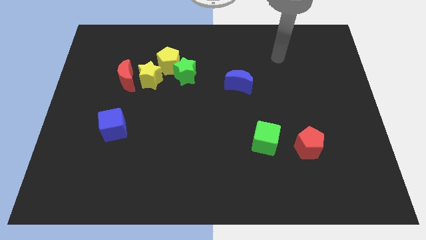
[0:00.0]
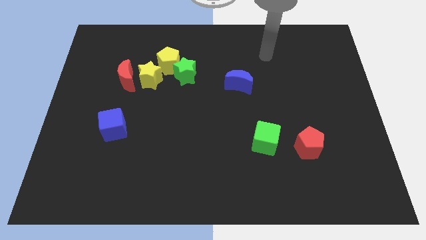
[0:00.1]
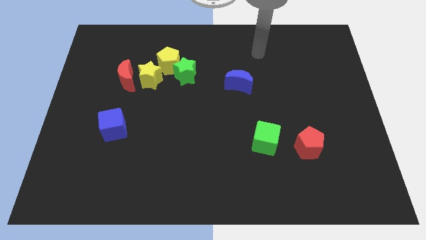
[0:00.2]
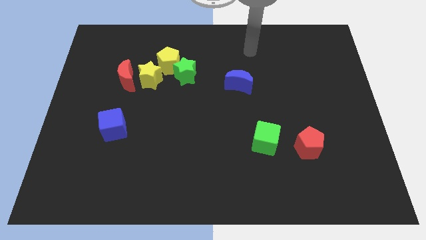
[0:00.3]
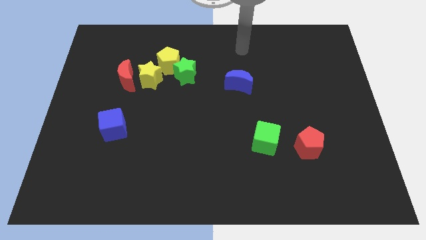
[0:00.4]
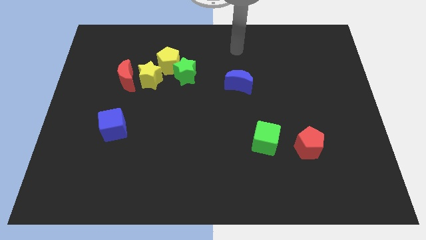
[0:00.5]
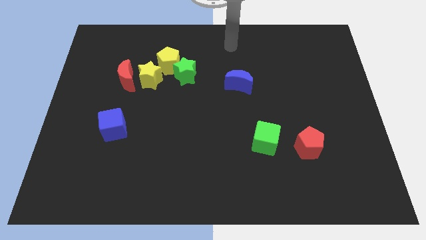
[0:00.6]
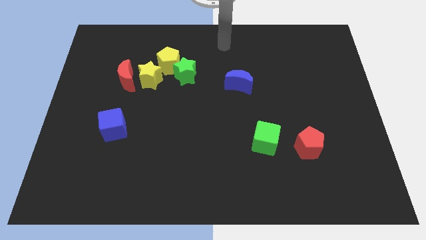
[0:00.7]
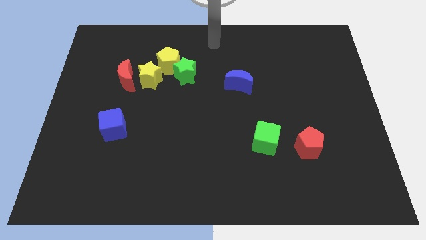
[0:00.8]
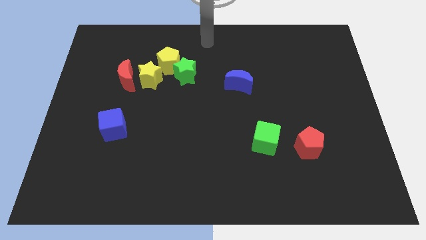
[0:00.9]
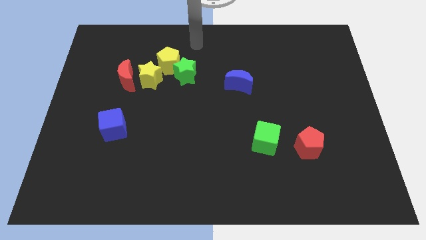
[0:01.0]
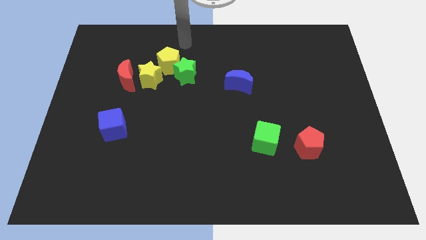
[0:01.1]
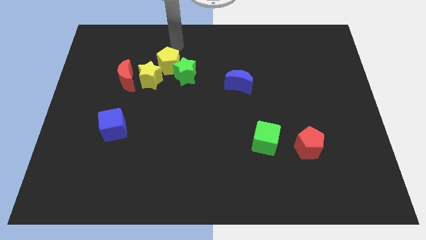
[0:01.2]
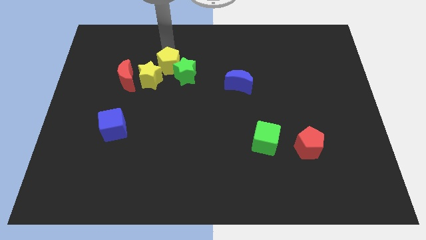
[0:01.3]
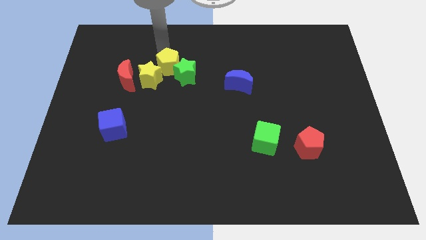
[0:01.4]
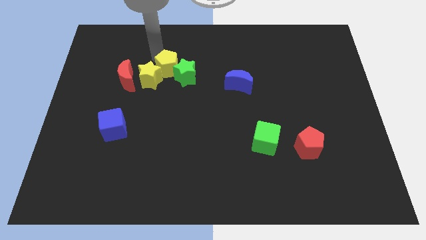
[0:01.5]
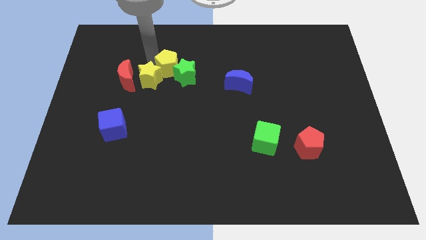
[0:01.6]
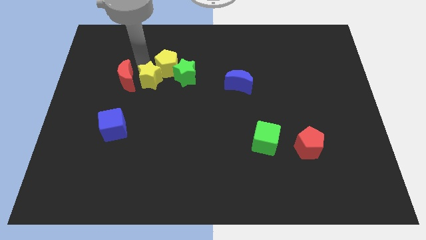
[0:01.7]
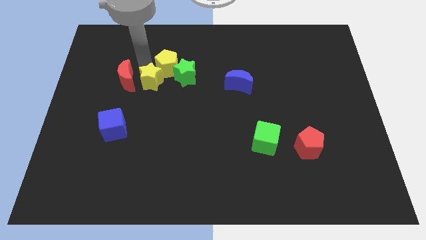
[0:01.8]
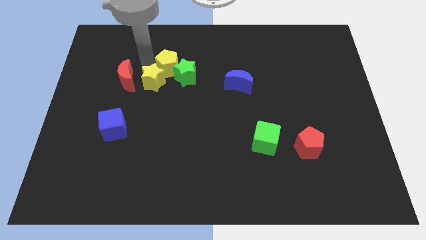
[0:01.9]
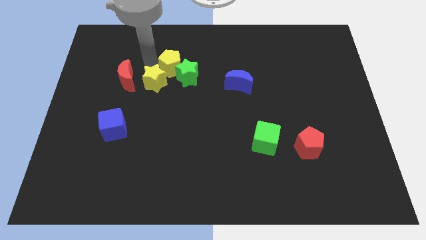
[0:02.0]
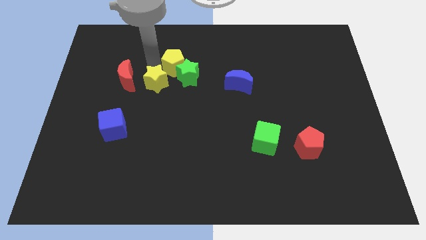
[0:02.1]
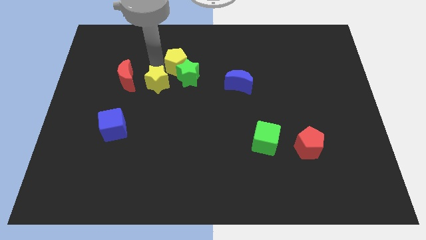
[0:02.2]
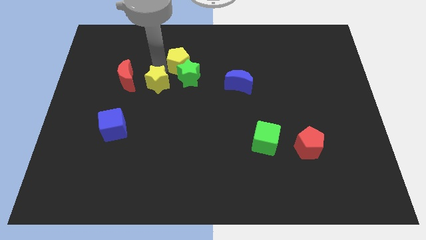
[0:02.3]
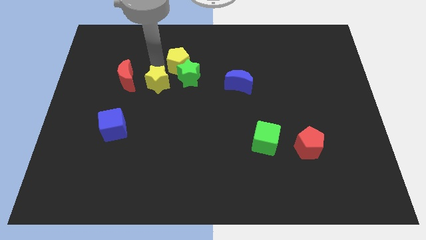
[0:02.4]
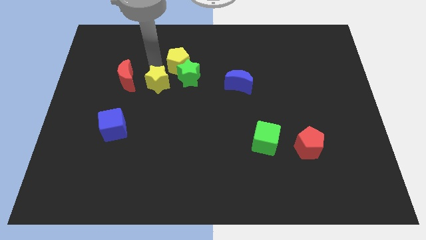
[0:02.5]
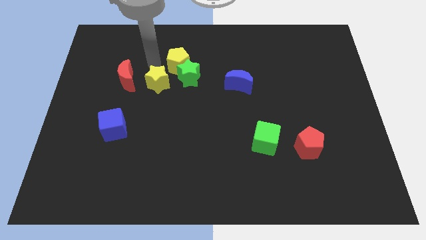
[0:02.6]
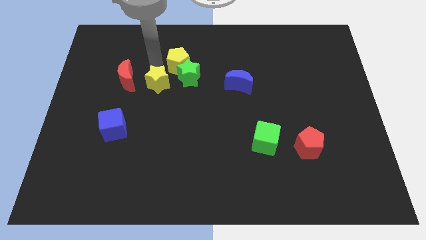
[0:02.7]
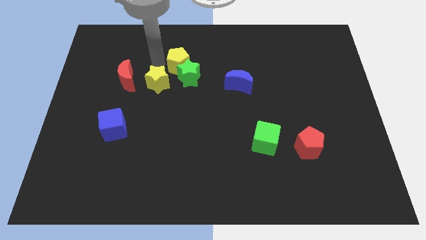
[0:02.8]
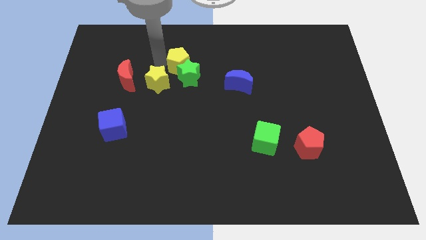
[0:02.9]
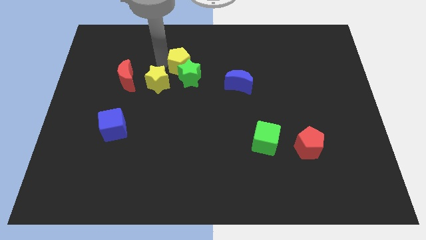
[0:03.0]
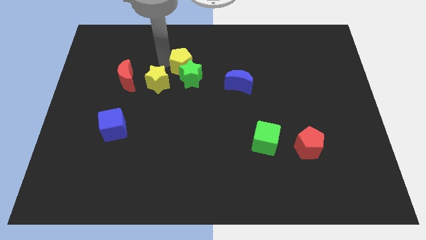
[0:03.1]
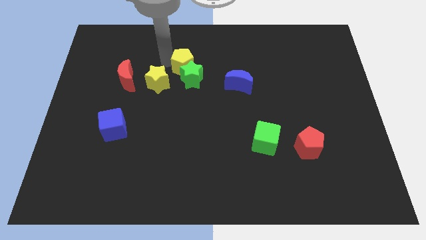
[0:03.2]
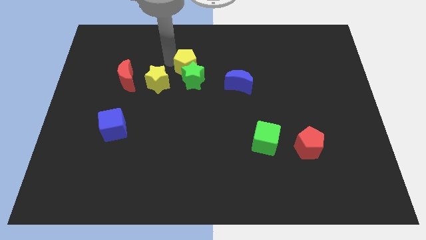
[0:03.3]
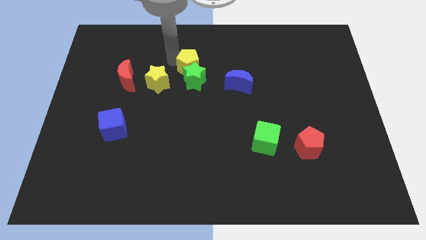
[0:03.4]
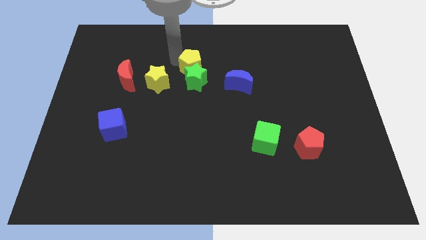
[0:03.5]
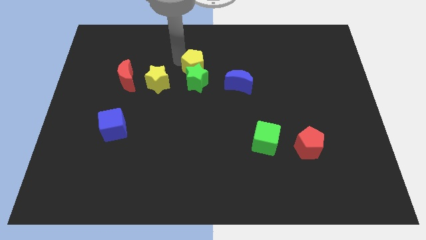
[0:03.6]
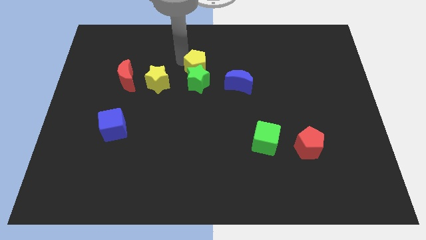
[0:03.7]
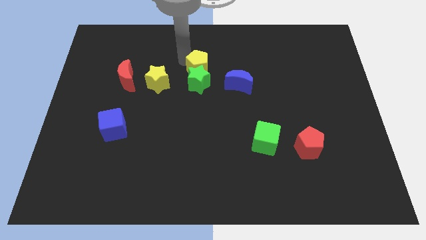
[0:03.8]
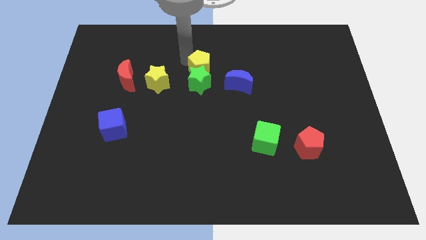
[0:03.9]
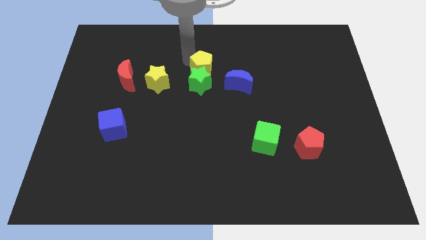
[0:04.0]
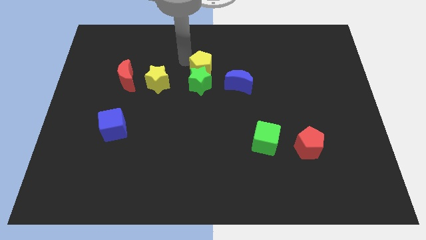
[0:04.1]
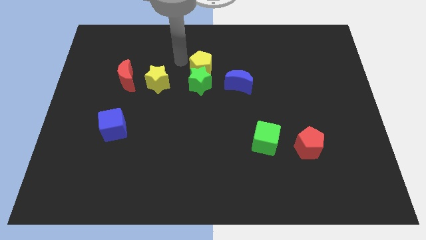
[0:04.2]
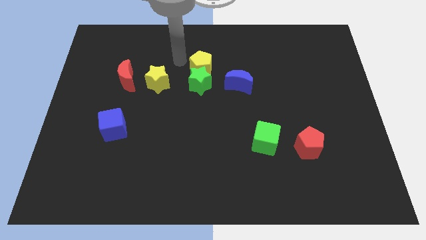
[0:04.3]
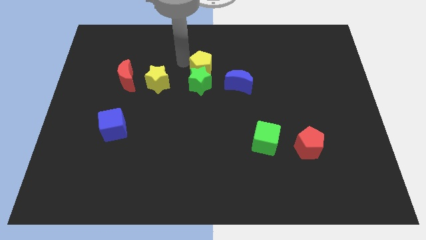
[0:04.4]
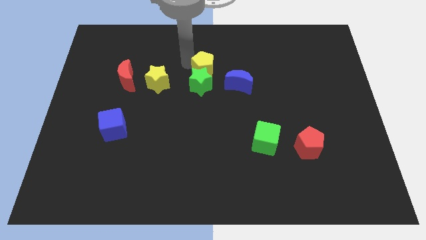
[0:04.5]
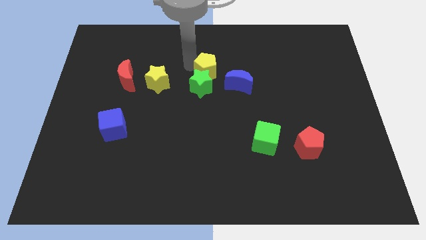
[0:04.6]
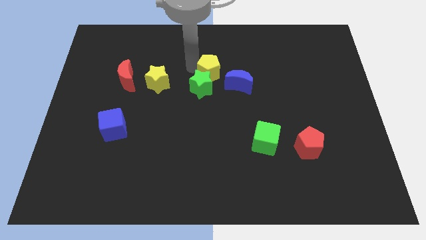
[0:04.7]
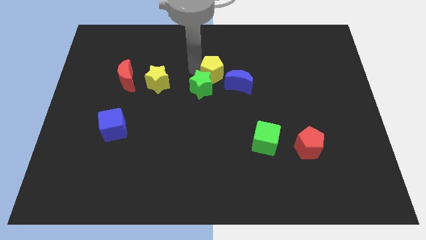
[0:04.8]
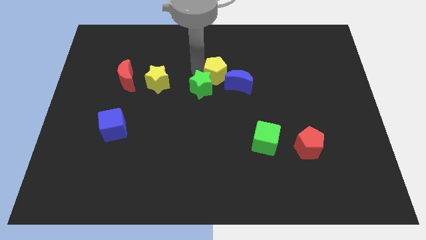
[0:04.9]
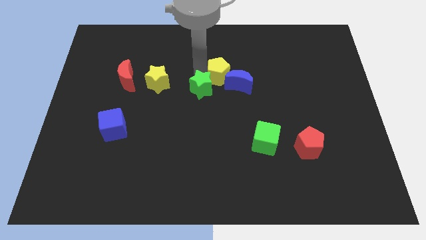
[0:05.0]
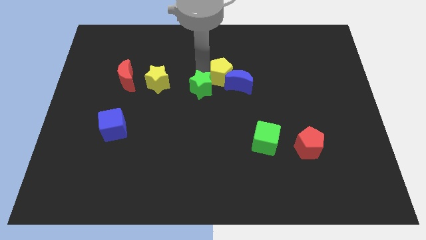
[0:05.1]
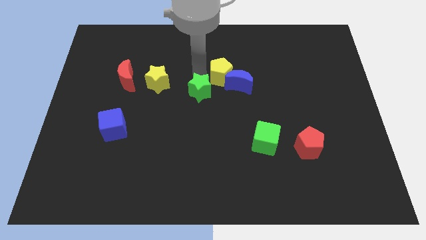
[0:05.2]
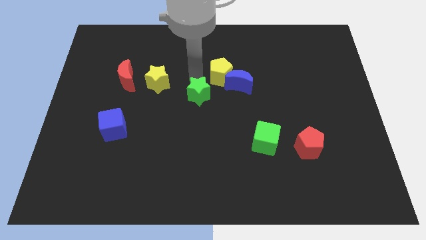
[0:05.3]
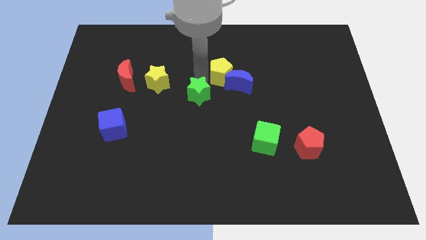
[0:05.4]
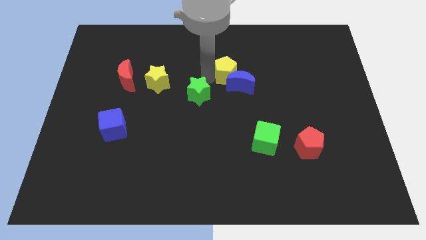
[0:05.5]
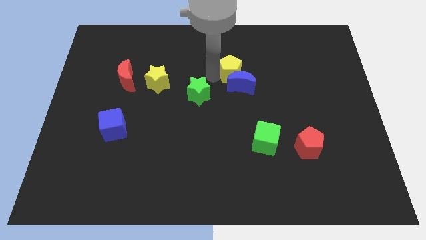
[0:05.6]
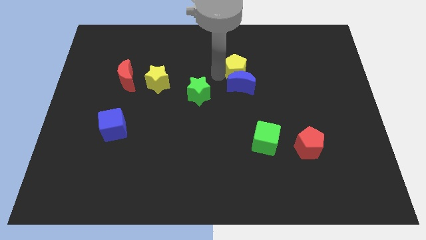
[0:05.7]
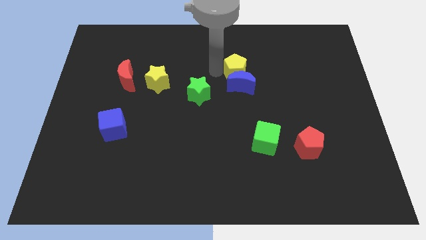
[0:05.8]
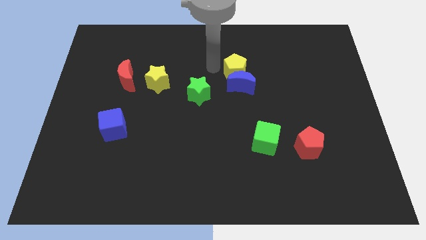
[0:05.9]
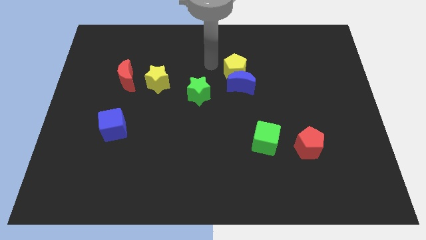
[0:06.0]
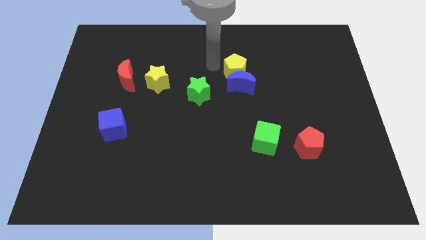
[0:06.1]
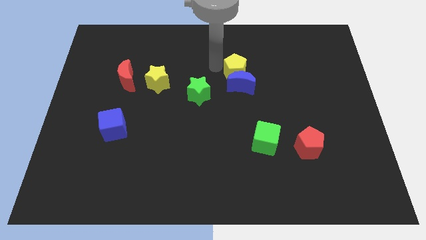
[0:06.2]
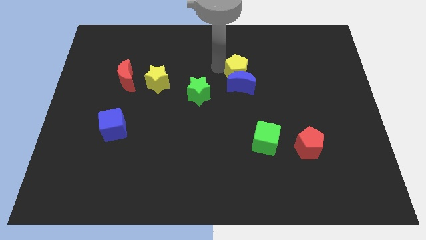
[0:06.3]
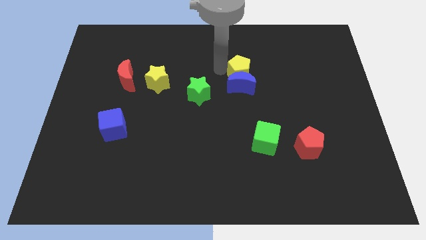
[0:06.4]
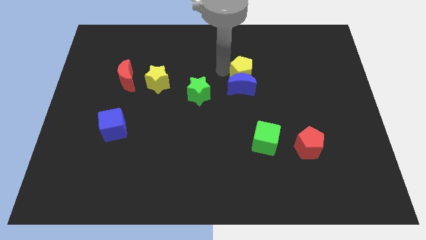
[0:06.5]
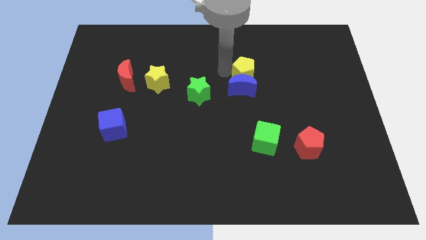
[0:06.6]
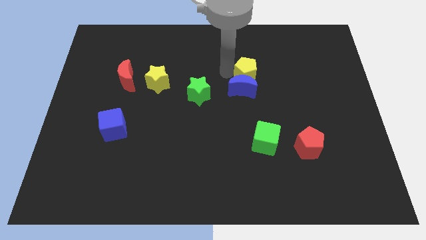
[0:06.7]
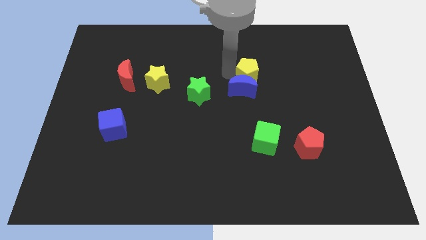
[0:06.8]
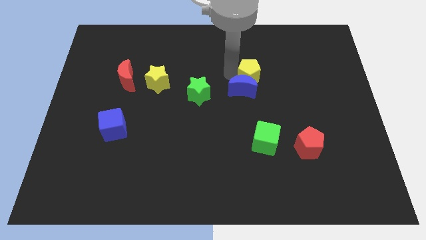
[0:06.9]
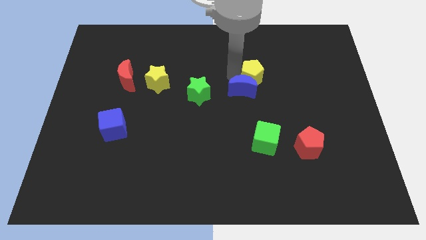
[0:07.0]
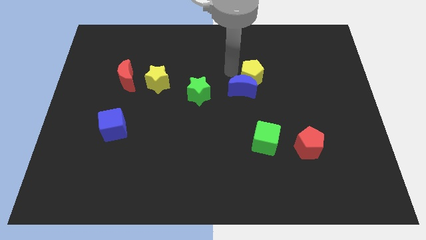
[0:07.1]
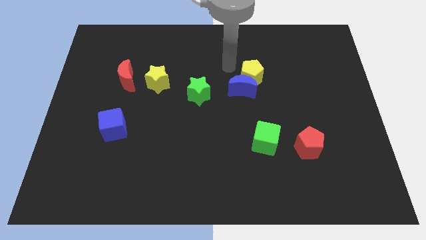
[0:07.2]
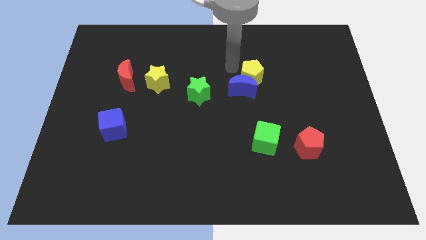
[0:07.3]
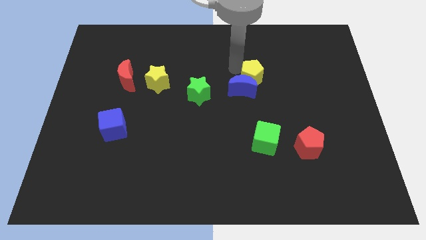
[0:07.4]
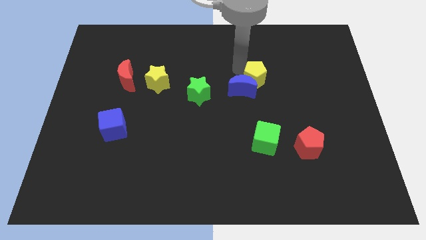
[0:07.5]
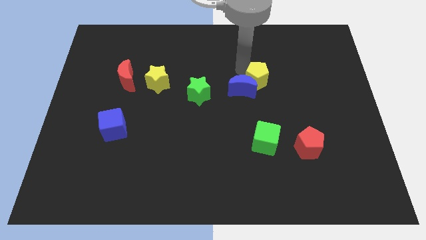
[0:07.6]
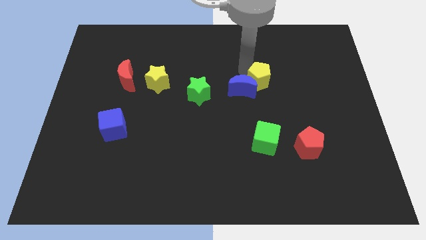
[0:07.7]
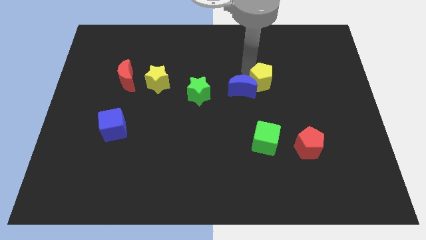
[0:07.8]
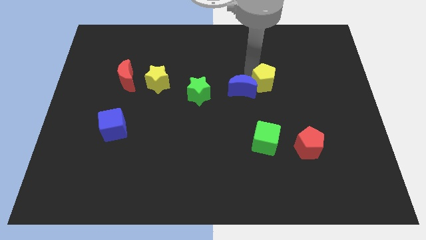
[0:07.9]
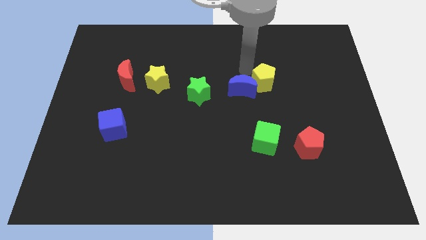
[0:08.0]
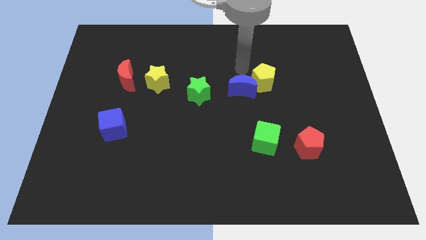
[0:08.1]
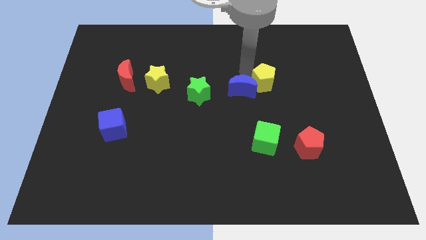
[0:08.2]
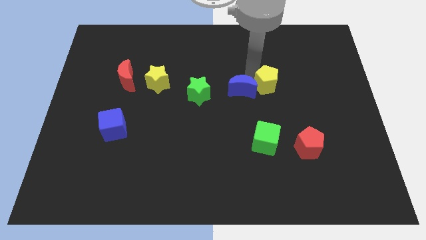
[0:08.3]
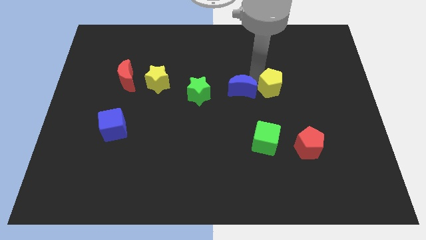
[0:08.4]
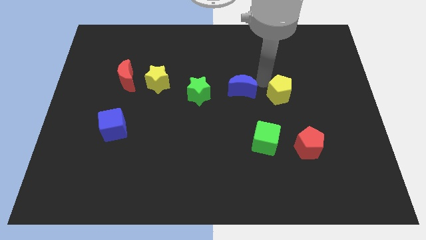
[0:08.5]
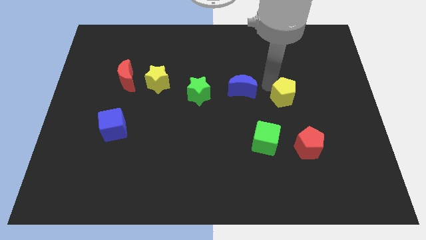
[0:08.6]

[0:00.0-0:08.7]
put the yellow pentagon to the top of the red pentagon
